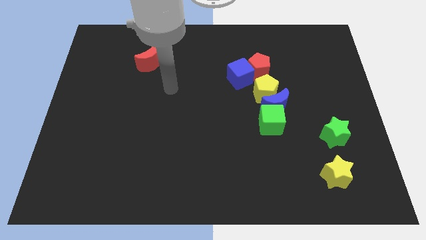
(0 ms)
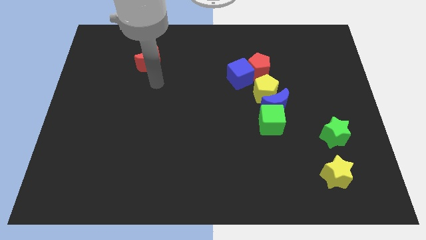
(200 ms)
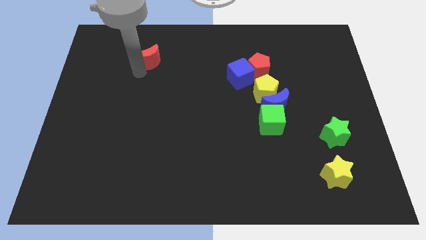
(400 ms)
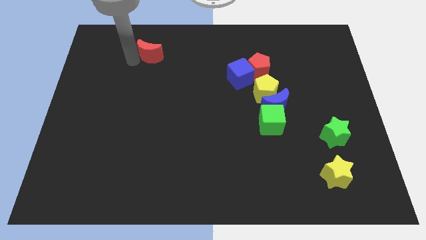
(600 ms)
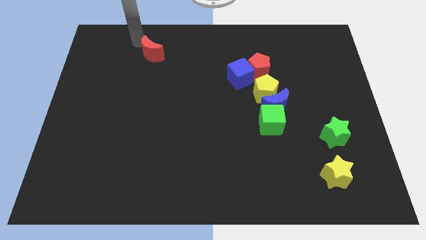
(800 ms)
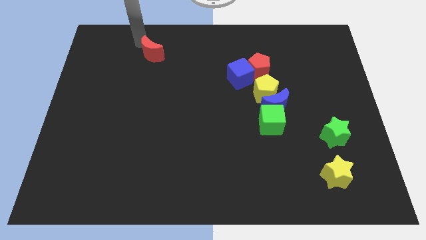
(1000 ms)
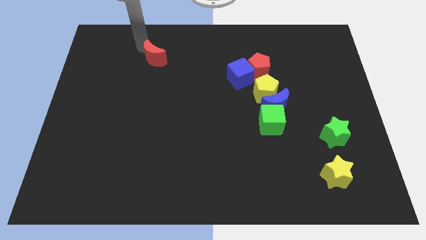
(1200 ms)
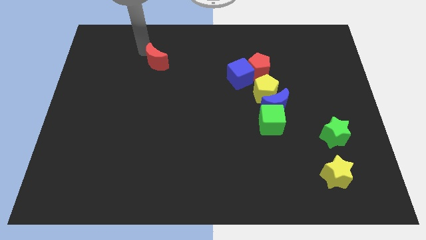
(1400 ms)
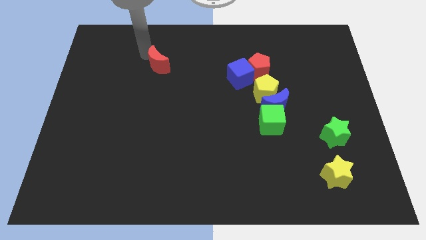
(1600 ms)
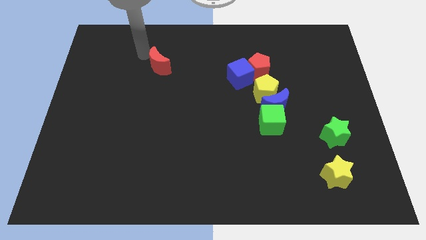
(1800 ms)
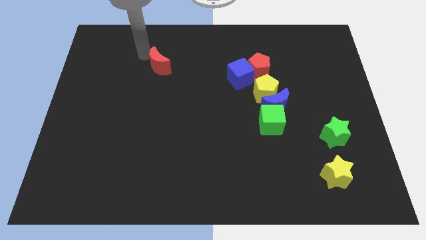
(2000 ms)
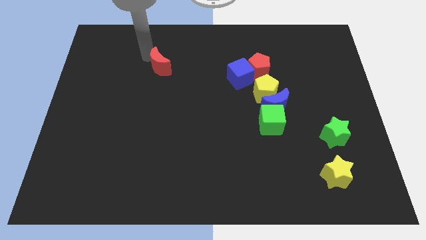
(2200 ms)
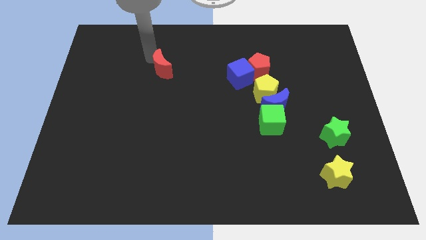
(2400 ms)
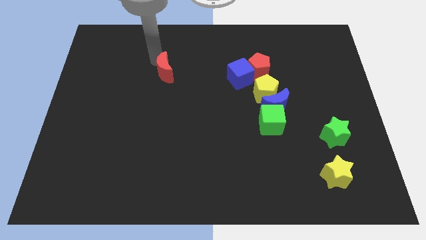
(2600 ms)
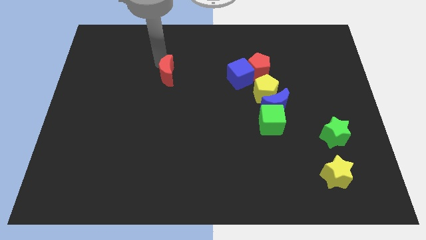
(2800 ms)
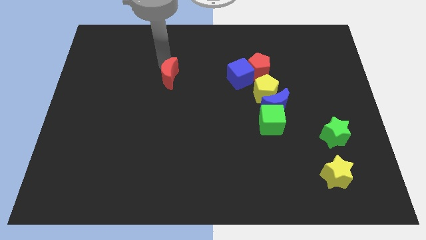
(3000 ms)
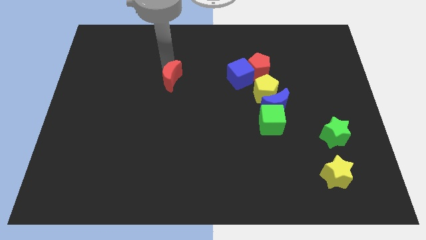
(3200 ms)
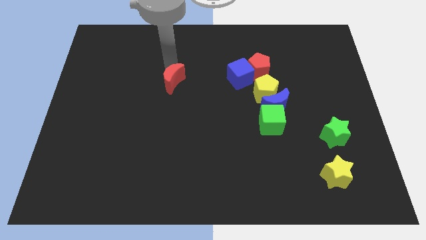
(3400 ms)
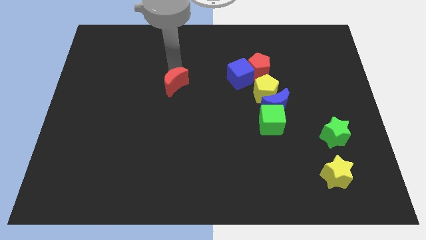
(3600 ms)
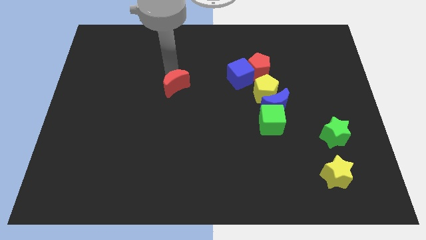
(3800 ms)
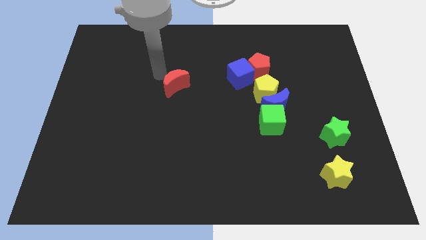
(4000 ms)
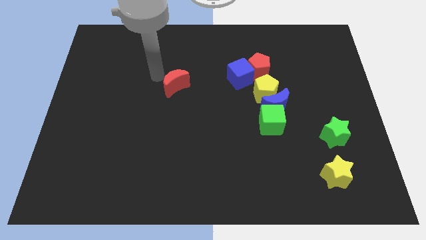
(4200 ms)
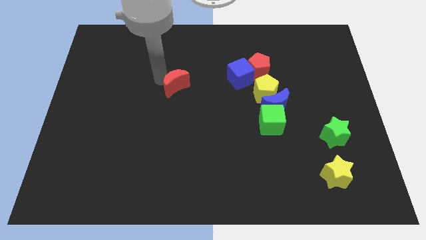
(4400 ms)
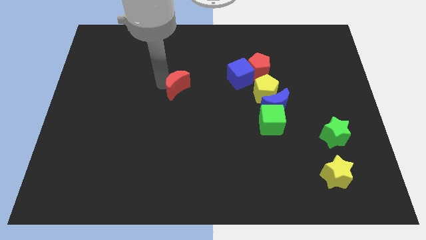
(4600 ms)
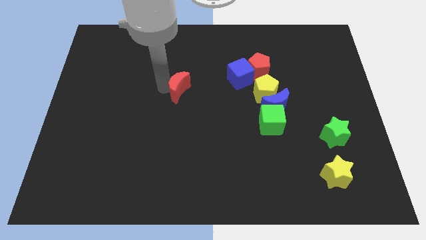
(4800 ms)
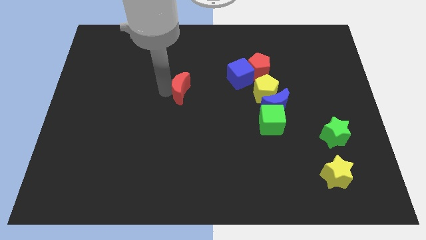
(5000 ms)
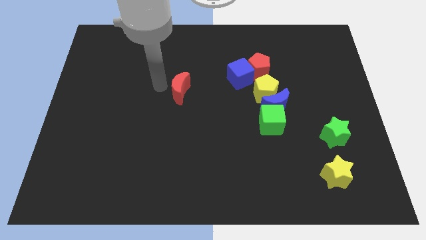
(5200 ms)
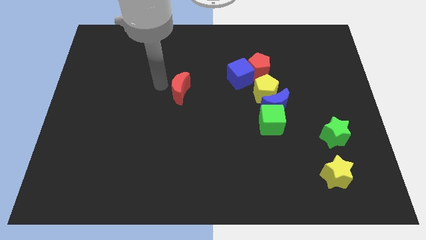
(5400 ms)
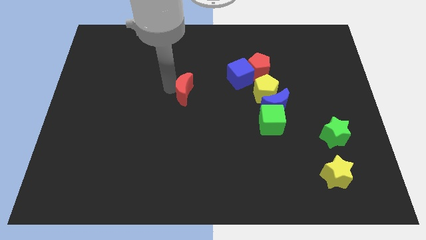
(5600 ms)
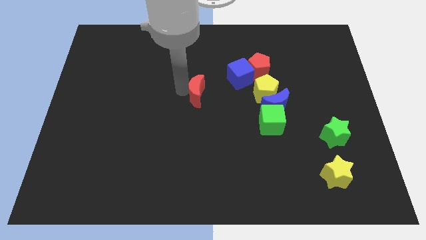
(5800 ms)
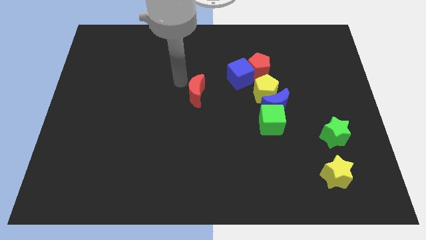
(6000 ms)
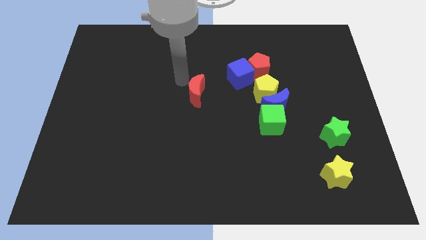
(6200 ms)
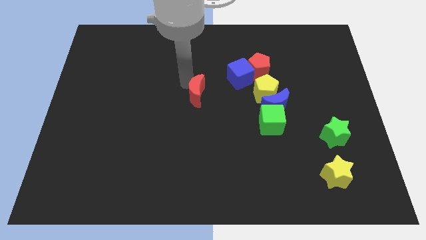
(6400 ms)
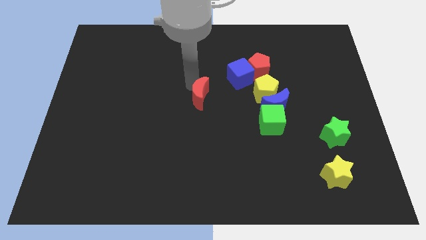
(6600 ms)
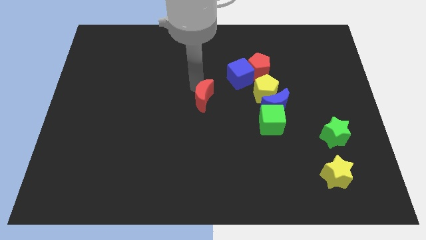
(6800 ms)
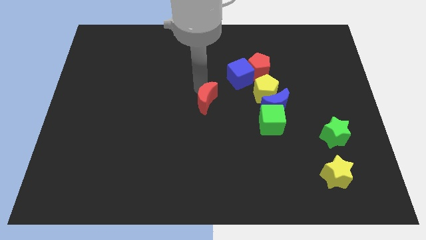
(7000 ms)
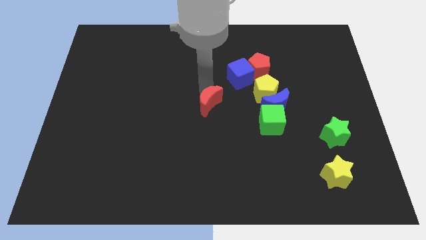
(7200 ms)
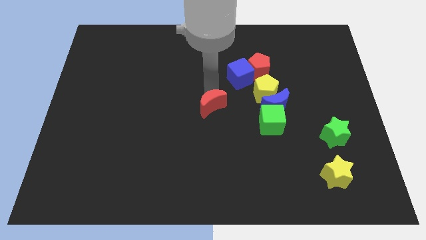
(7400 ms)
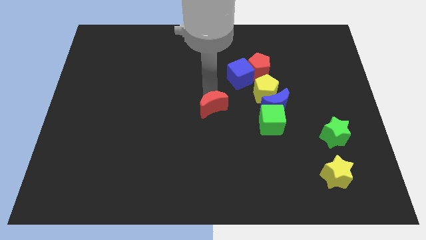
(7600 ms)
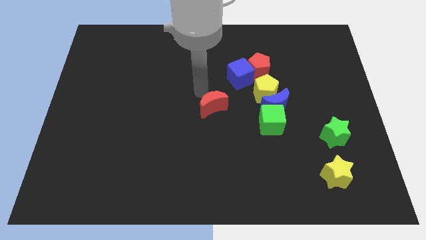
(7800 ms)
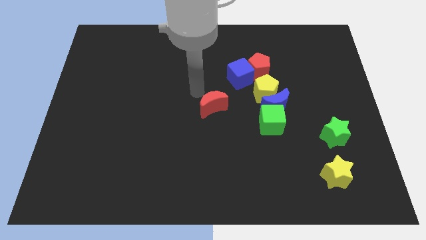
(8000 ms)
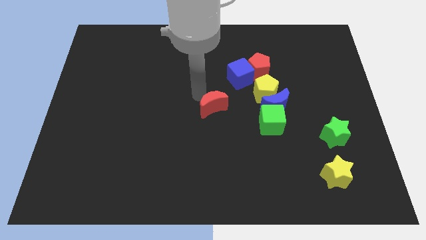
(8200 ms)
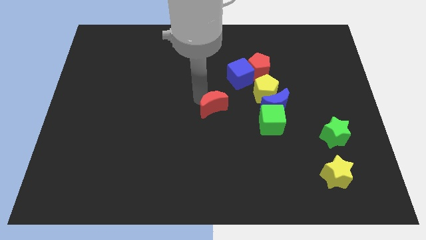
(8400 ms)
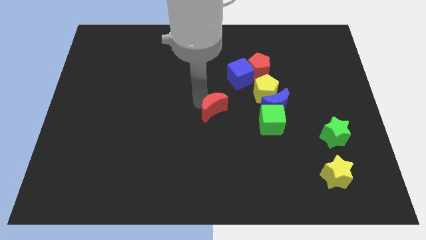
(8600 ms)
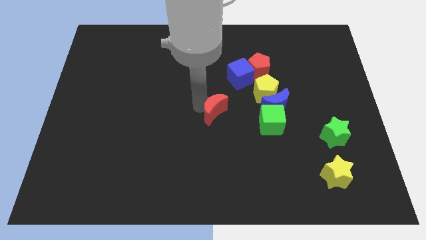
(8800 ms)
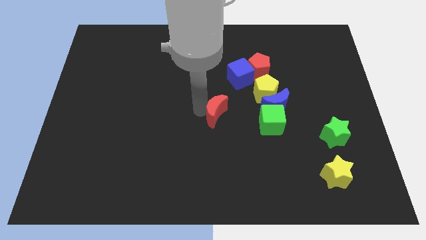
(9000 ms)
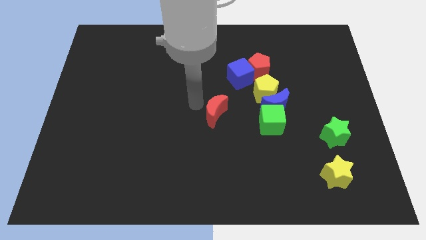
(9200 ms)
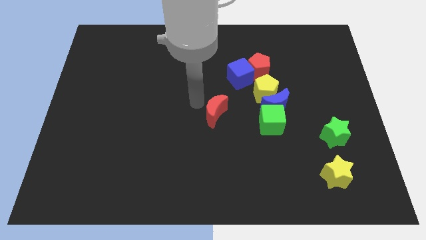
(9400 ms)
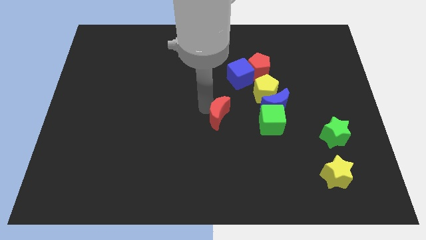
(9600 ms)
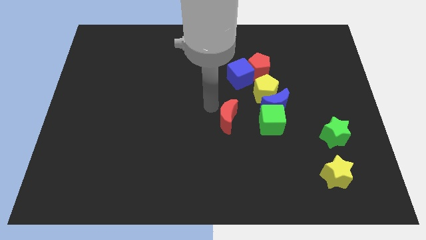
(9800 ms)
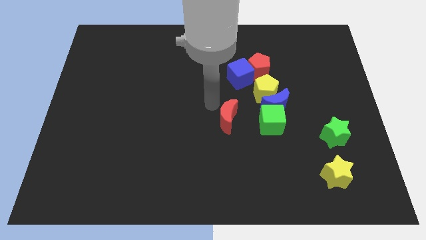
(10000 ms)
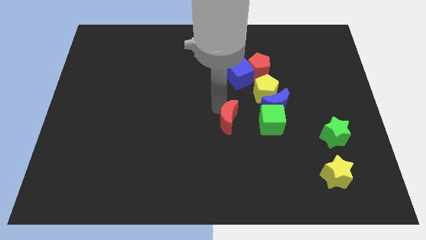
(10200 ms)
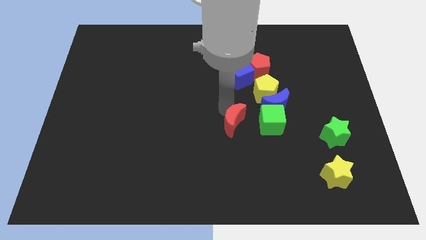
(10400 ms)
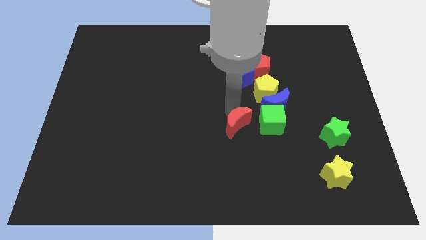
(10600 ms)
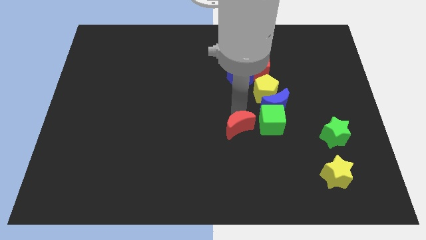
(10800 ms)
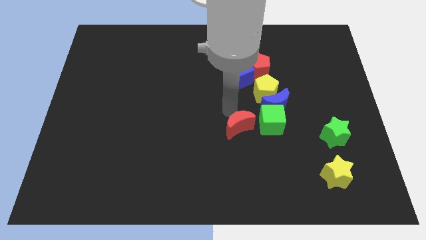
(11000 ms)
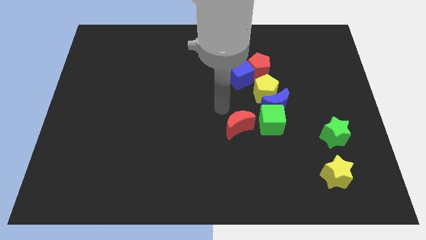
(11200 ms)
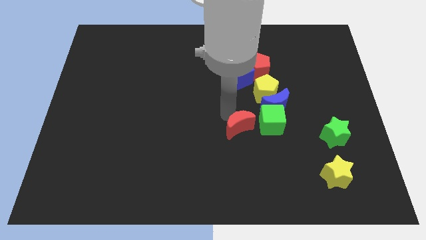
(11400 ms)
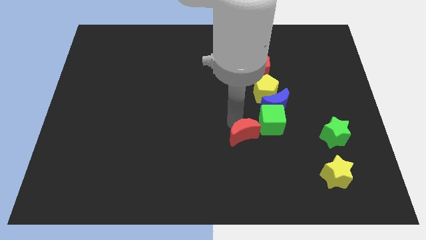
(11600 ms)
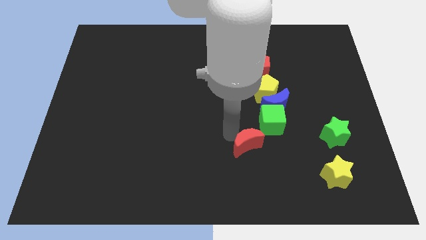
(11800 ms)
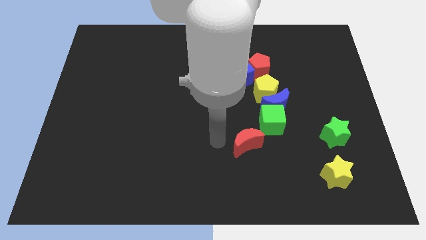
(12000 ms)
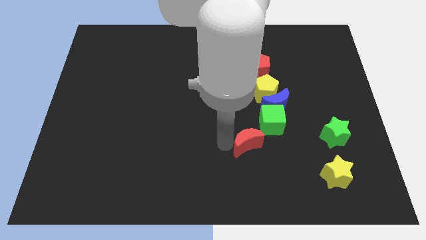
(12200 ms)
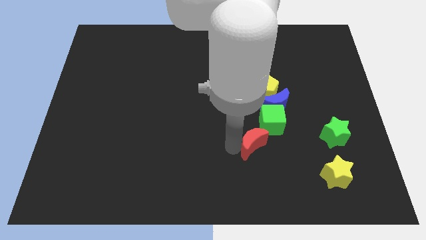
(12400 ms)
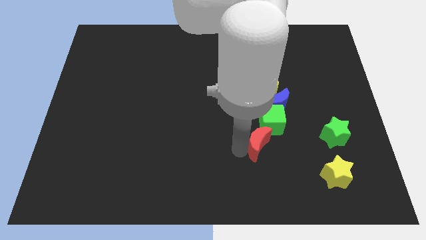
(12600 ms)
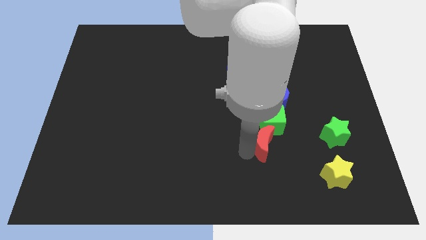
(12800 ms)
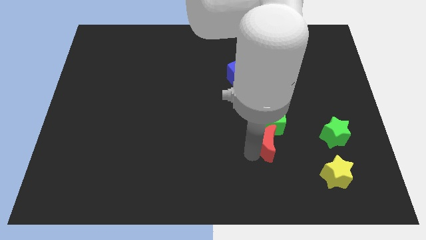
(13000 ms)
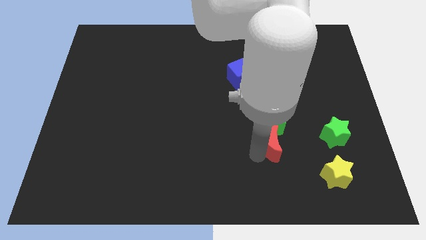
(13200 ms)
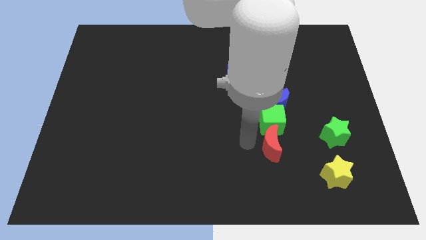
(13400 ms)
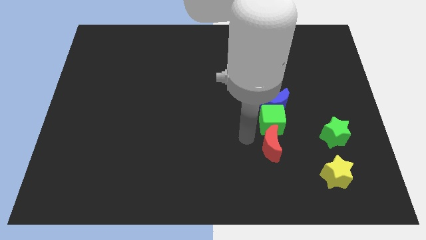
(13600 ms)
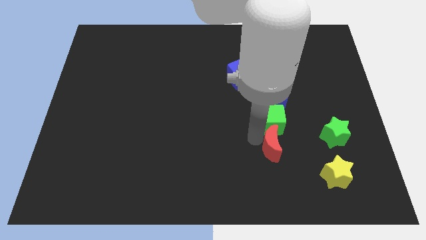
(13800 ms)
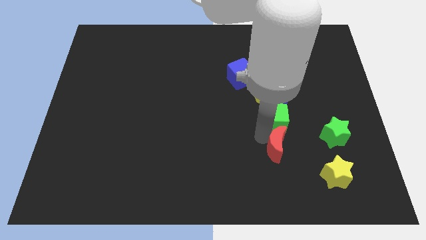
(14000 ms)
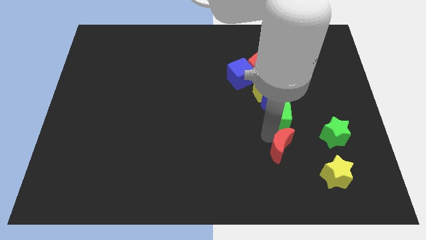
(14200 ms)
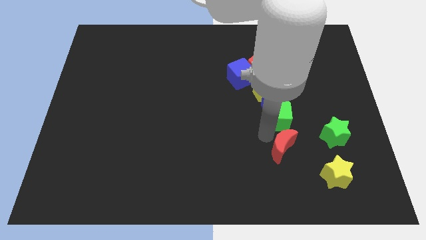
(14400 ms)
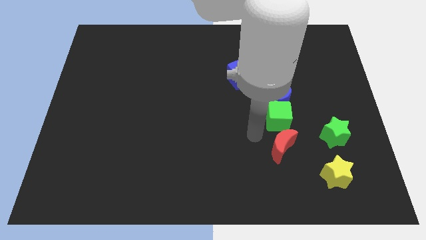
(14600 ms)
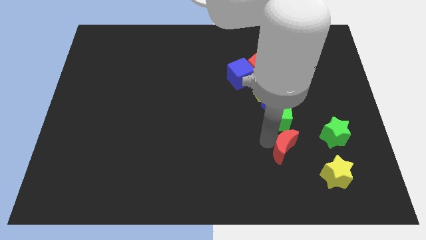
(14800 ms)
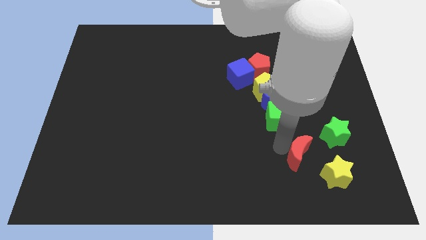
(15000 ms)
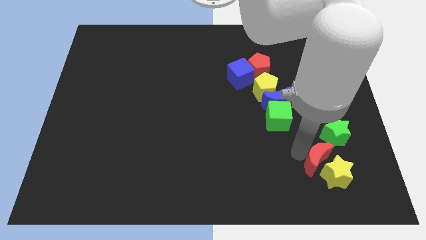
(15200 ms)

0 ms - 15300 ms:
put the red moon to the yellow star
